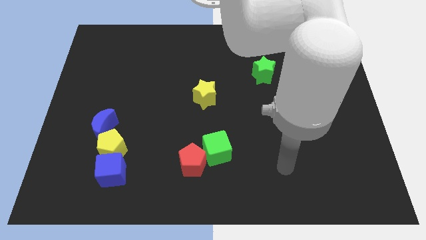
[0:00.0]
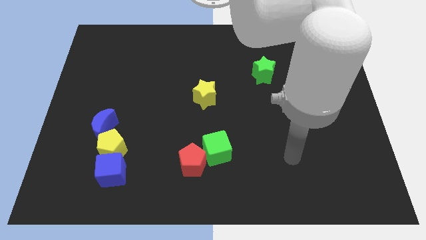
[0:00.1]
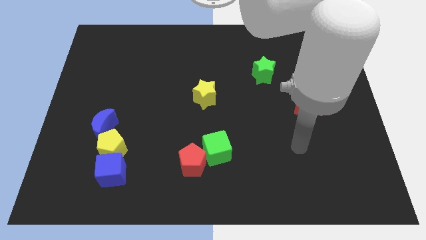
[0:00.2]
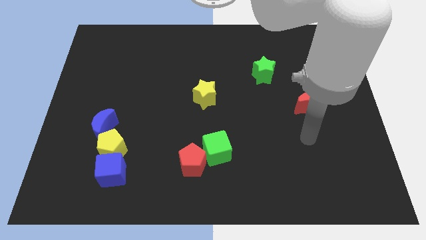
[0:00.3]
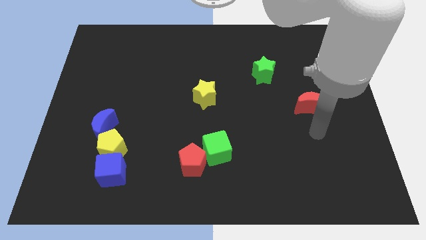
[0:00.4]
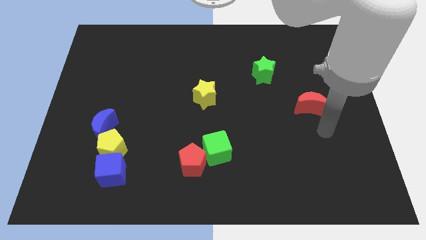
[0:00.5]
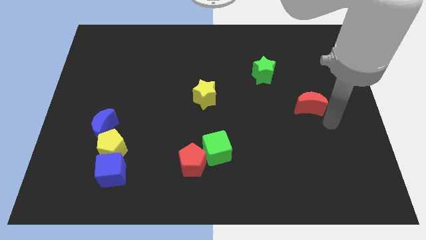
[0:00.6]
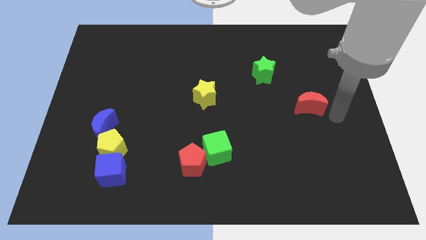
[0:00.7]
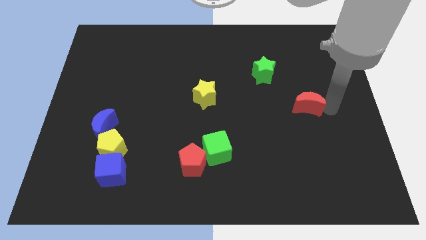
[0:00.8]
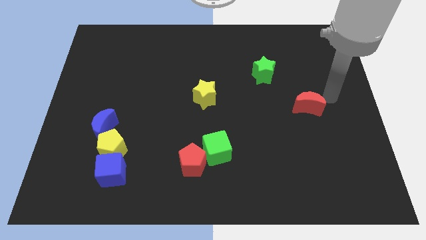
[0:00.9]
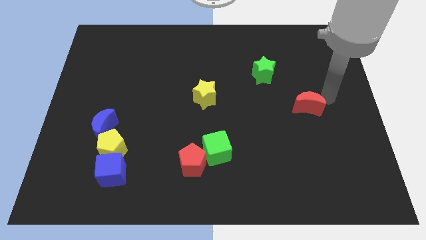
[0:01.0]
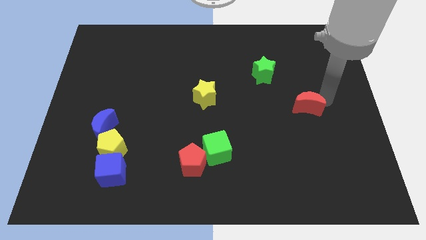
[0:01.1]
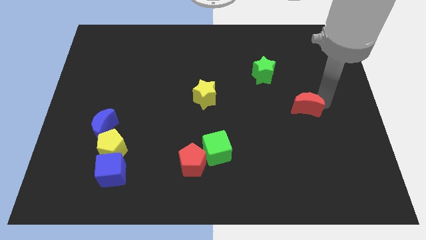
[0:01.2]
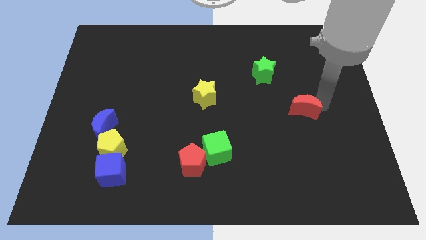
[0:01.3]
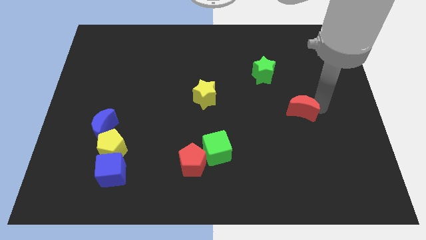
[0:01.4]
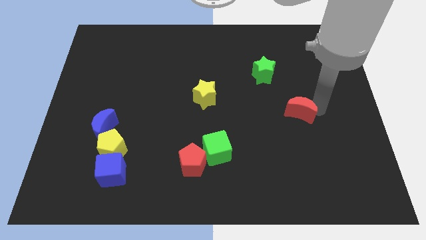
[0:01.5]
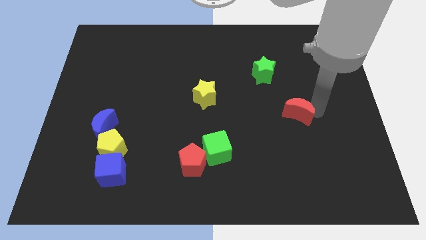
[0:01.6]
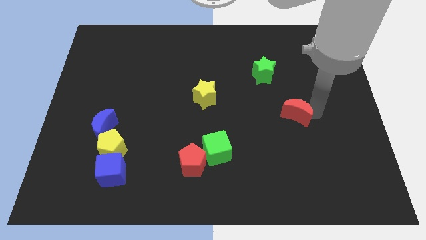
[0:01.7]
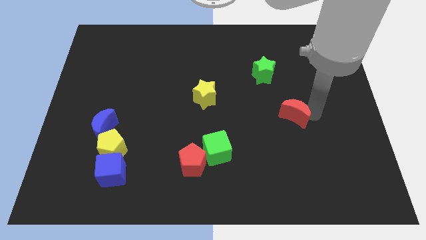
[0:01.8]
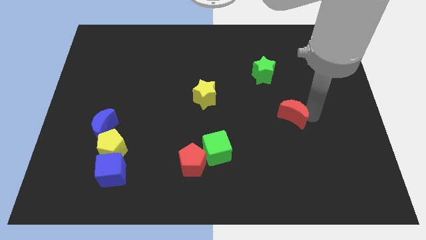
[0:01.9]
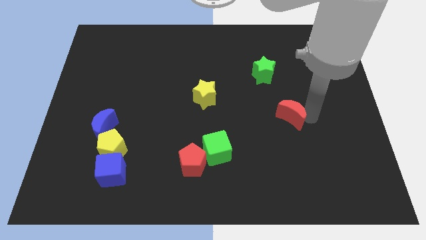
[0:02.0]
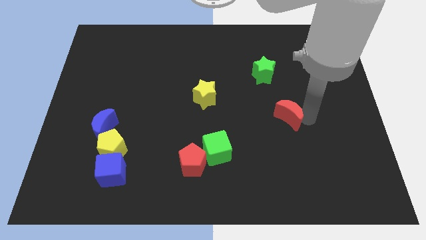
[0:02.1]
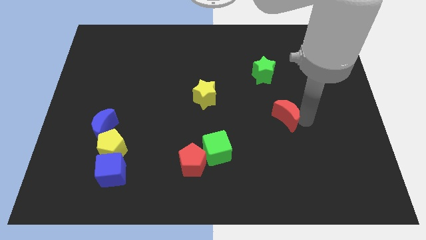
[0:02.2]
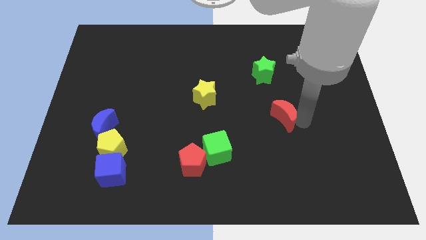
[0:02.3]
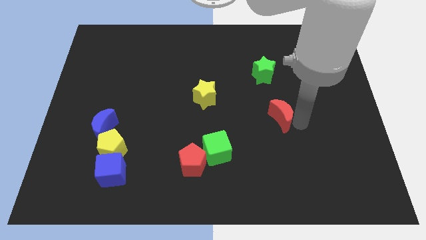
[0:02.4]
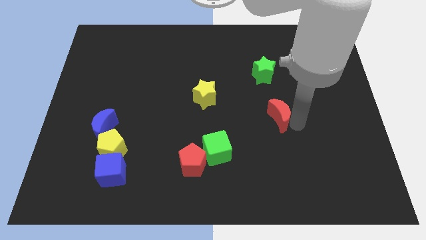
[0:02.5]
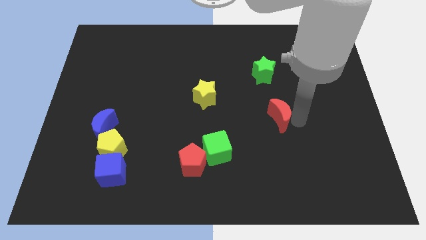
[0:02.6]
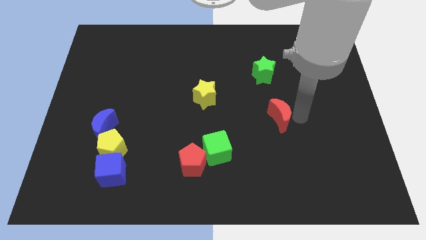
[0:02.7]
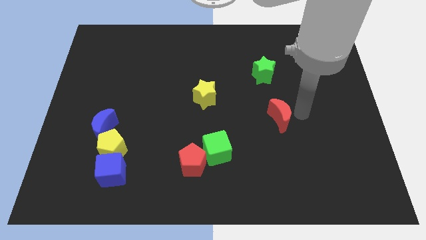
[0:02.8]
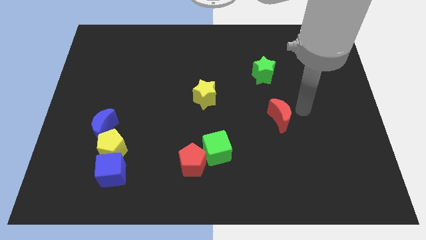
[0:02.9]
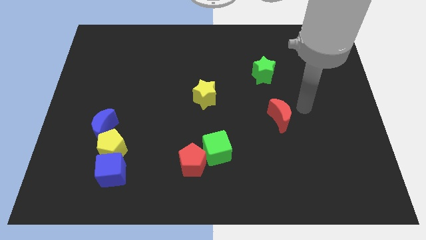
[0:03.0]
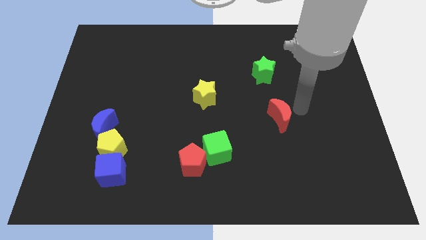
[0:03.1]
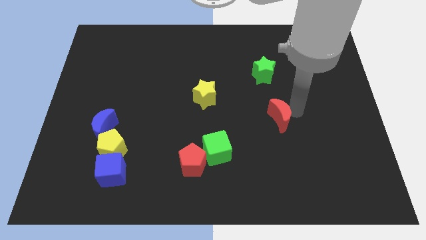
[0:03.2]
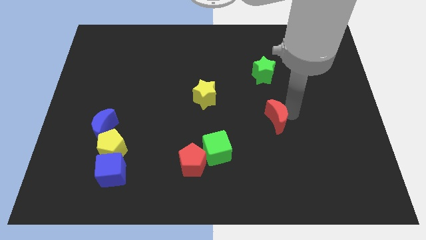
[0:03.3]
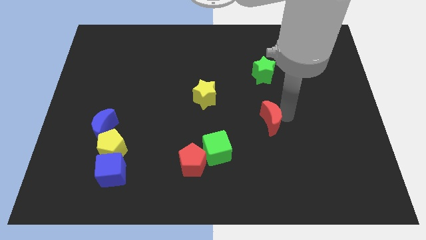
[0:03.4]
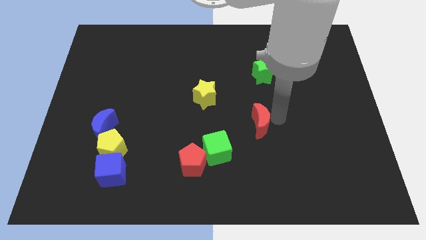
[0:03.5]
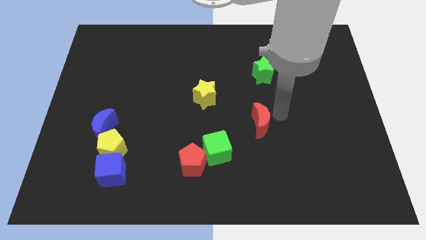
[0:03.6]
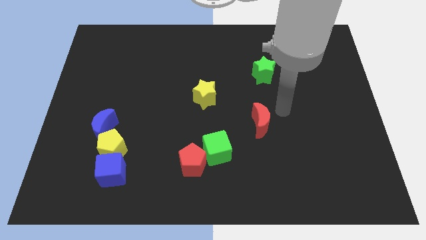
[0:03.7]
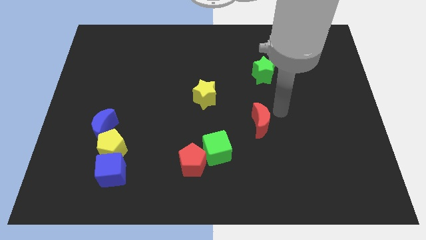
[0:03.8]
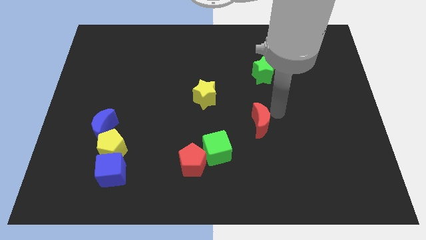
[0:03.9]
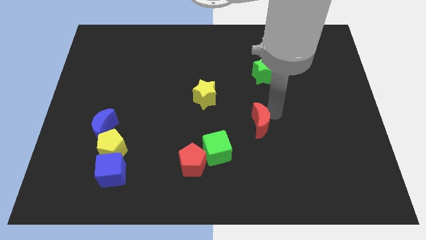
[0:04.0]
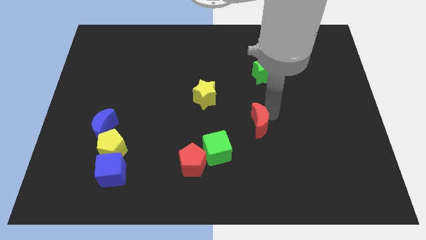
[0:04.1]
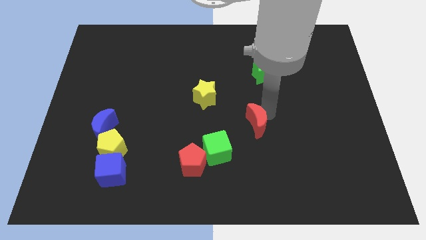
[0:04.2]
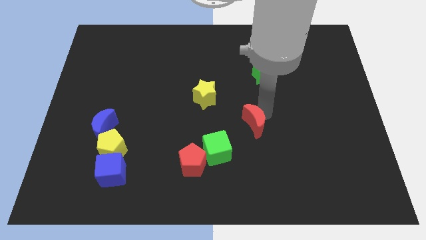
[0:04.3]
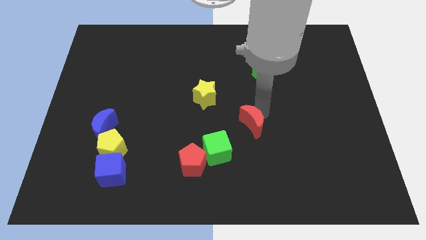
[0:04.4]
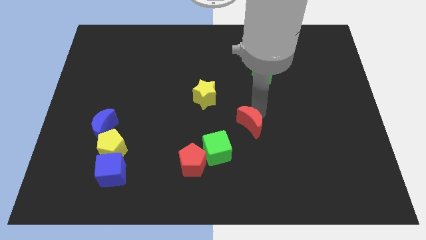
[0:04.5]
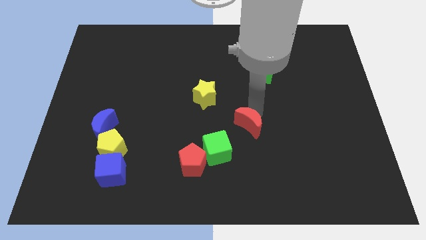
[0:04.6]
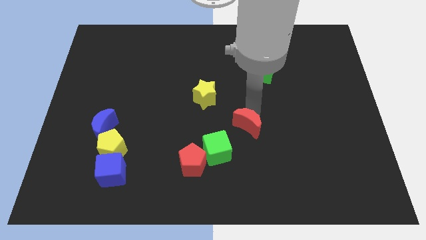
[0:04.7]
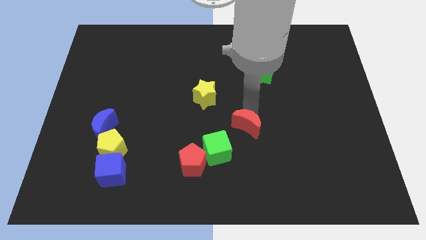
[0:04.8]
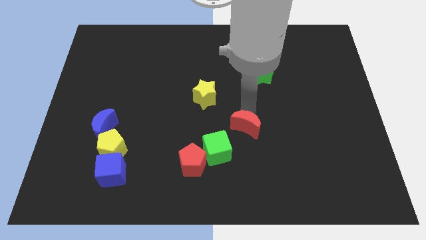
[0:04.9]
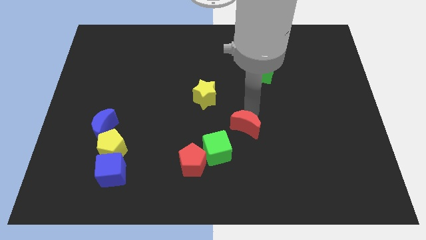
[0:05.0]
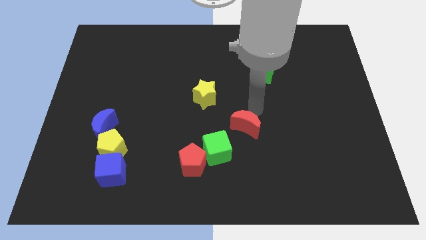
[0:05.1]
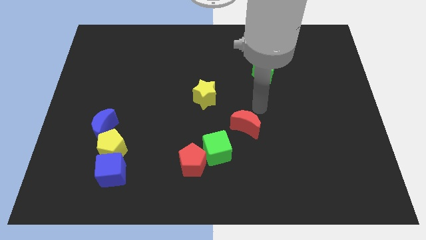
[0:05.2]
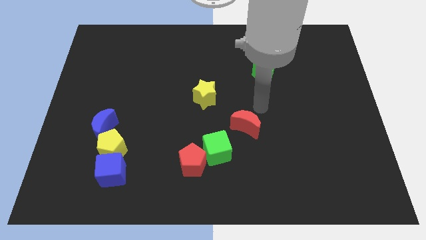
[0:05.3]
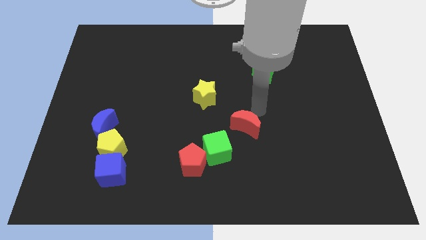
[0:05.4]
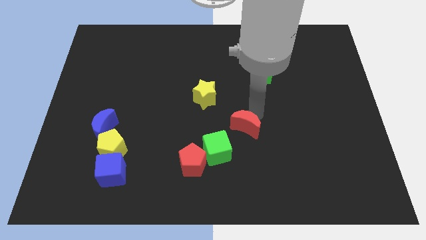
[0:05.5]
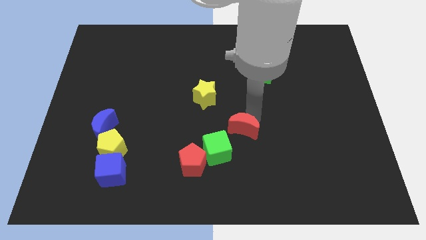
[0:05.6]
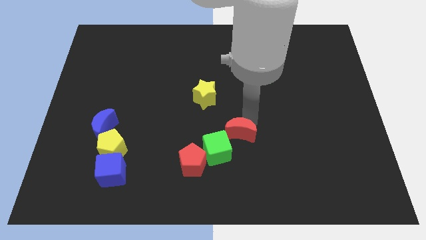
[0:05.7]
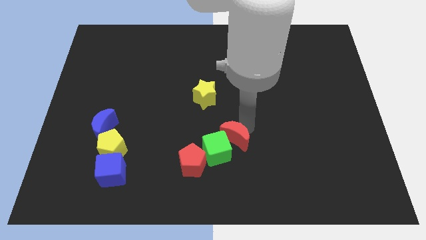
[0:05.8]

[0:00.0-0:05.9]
push the red moon to the green cube

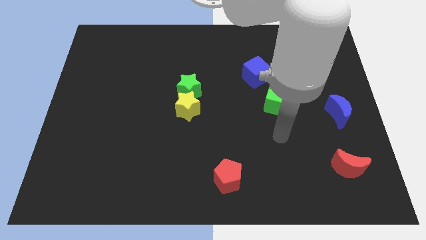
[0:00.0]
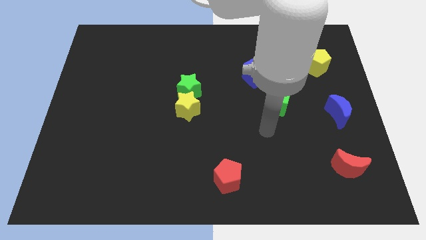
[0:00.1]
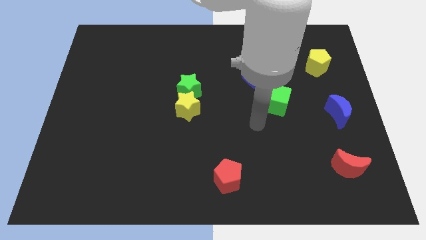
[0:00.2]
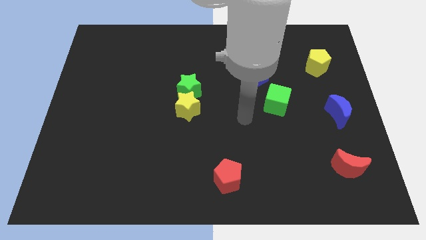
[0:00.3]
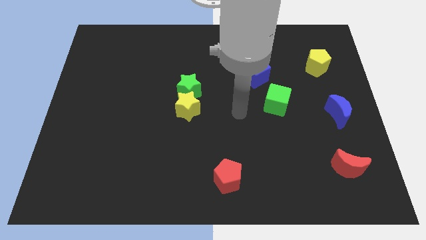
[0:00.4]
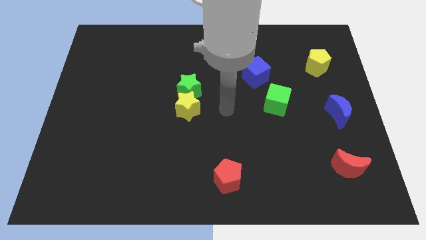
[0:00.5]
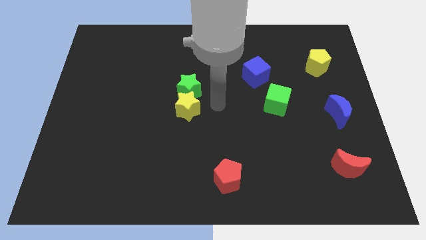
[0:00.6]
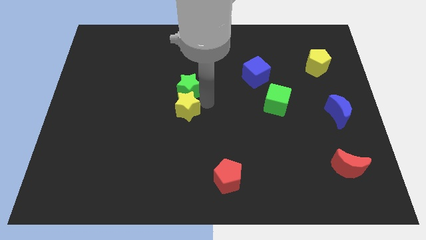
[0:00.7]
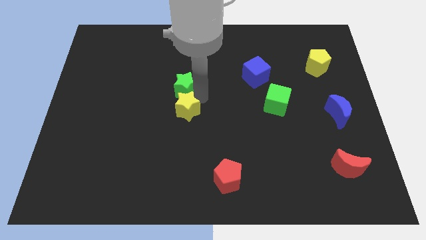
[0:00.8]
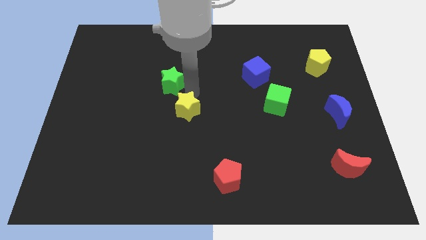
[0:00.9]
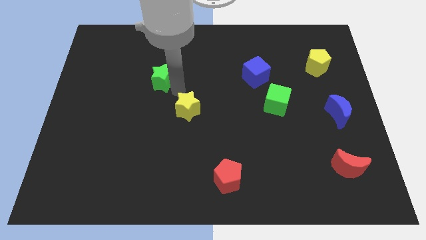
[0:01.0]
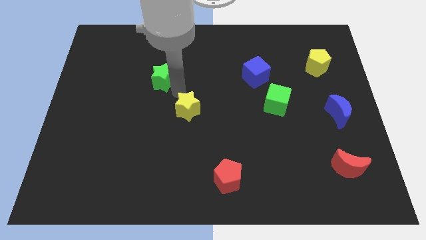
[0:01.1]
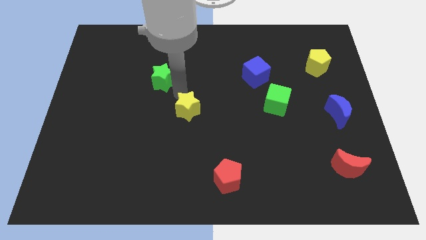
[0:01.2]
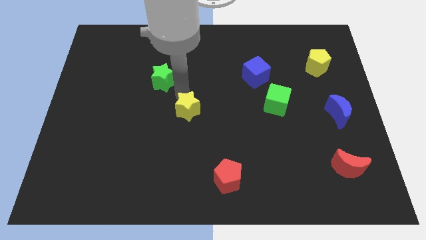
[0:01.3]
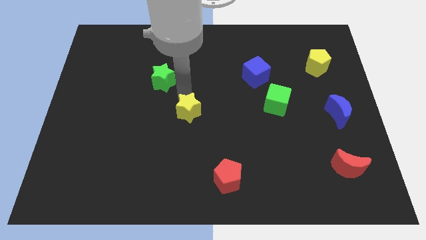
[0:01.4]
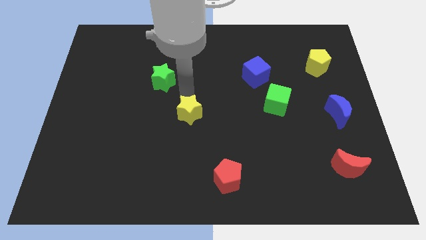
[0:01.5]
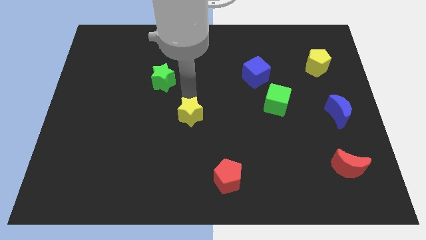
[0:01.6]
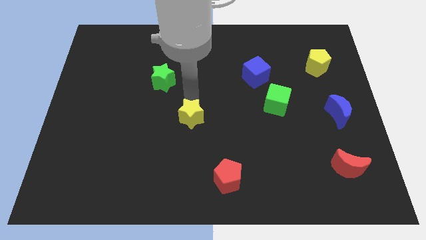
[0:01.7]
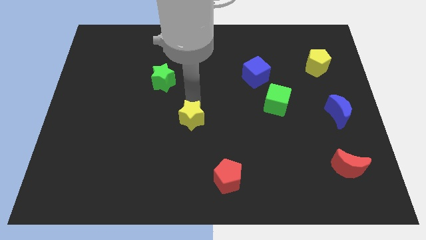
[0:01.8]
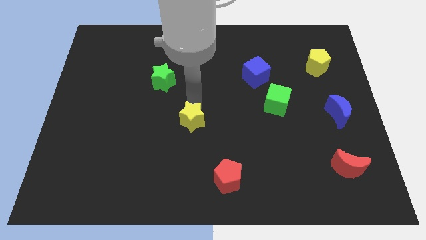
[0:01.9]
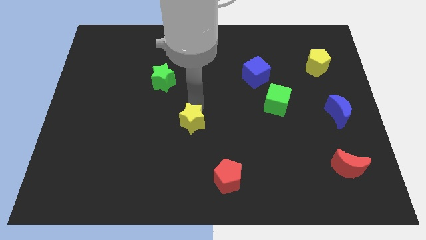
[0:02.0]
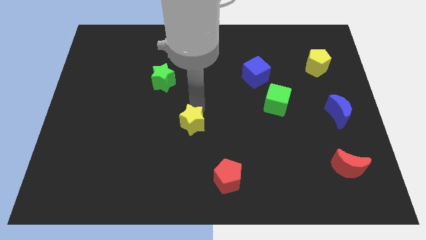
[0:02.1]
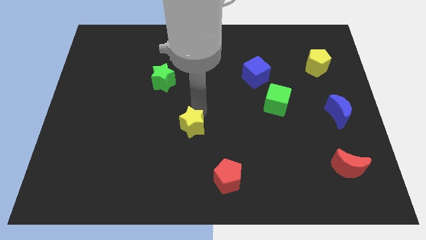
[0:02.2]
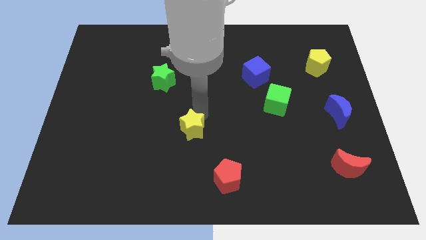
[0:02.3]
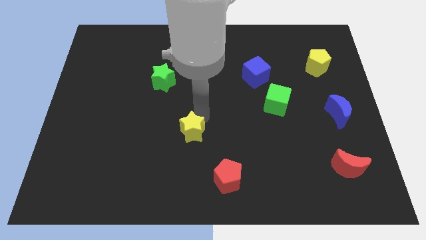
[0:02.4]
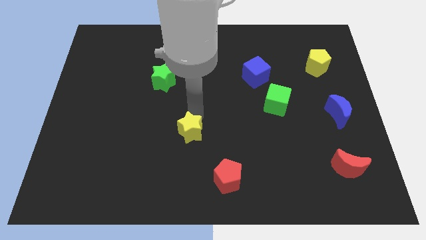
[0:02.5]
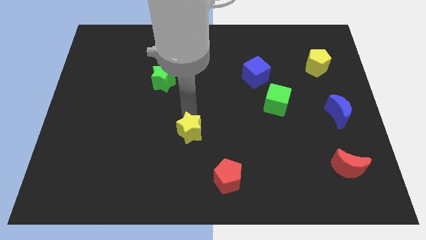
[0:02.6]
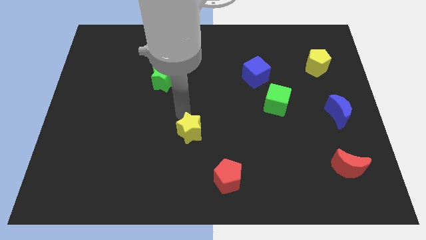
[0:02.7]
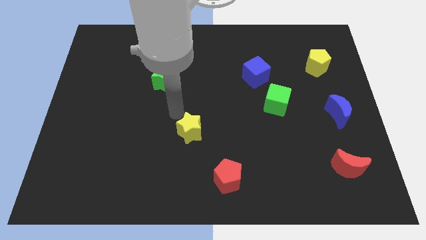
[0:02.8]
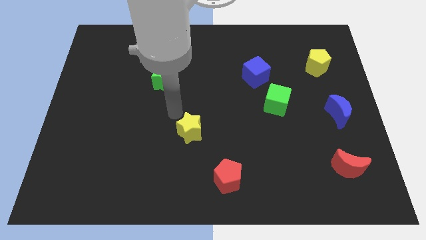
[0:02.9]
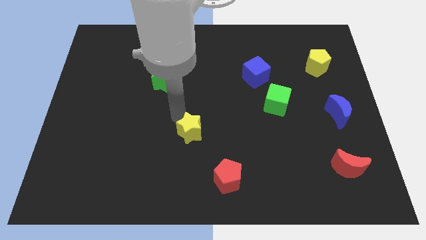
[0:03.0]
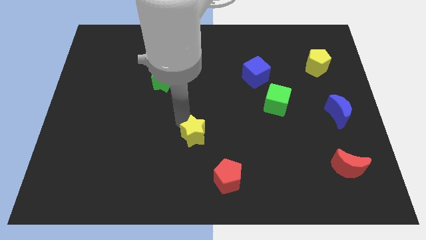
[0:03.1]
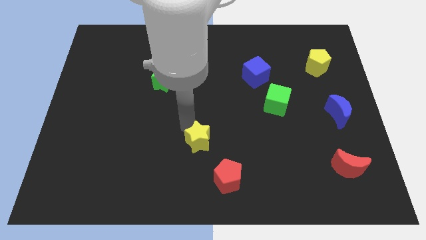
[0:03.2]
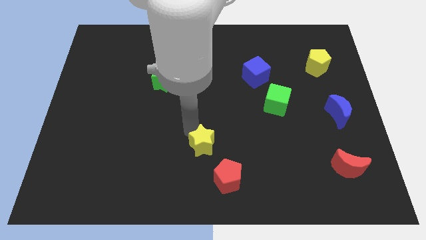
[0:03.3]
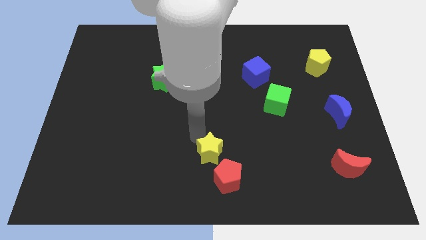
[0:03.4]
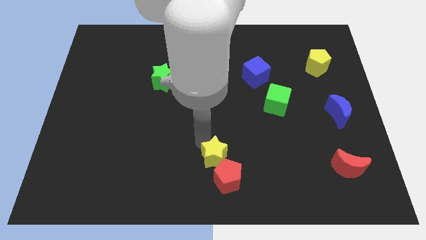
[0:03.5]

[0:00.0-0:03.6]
put the yellow star to the red pentagon
